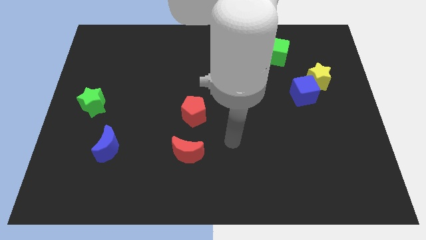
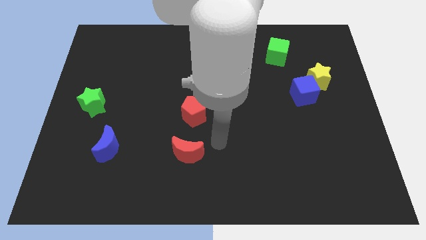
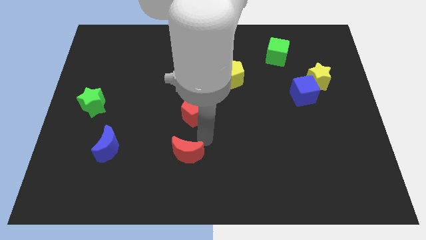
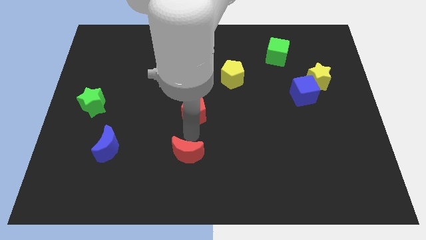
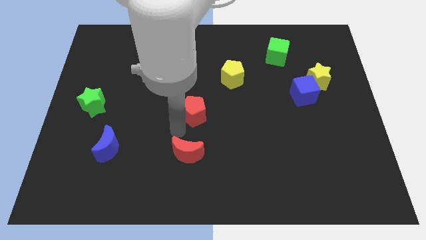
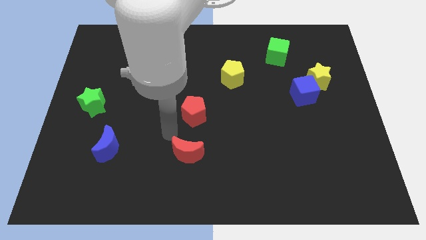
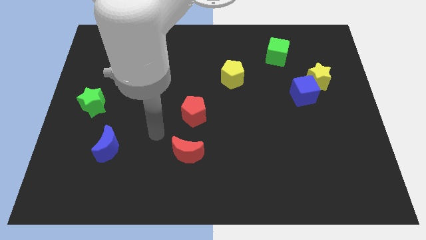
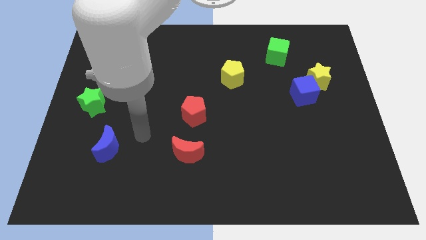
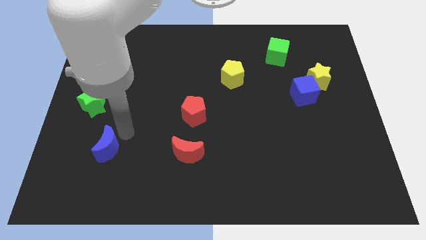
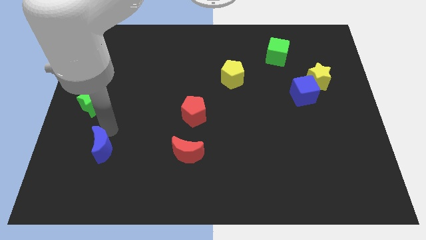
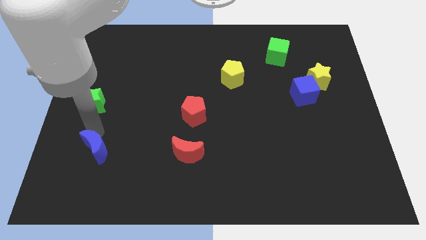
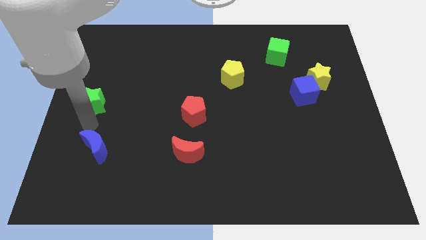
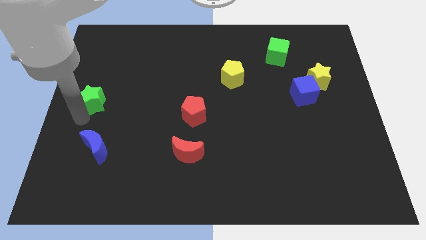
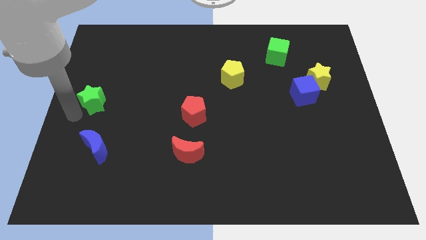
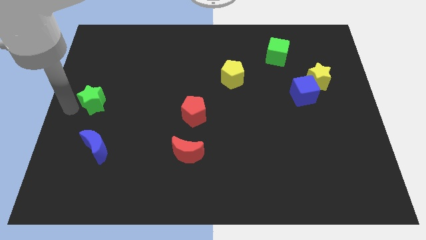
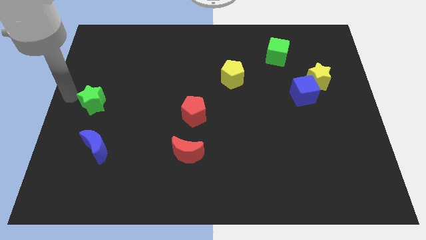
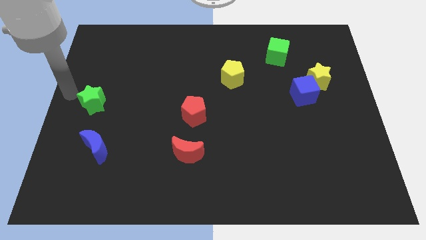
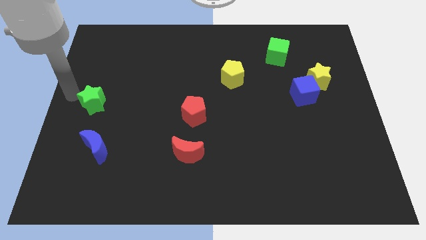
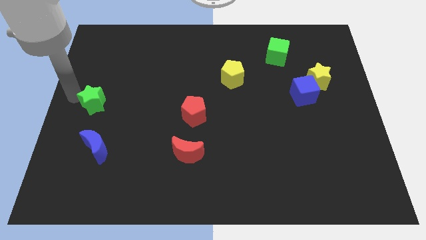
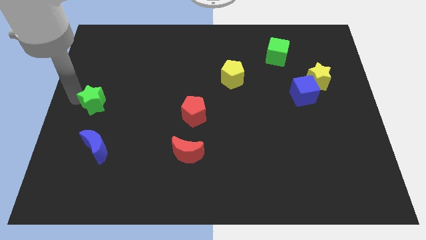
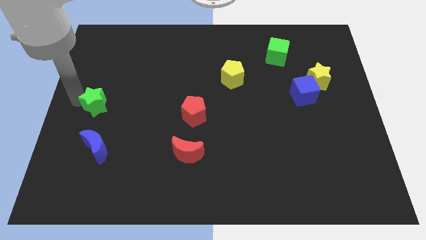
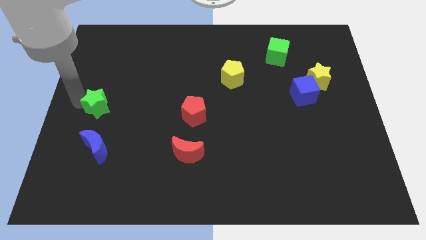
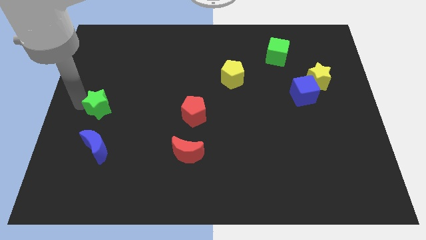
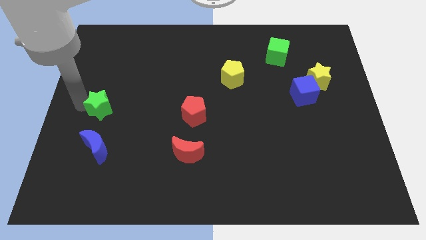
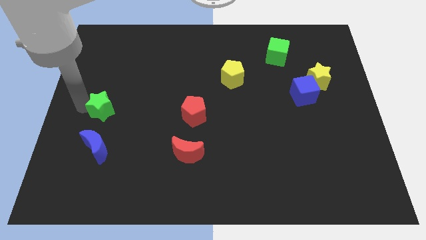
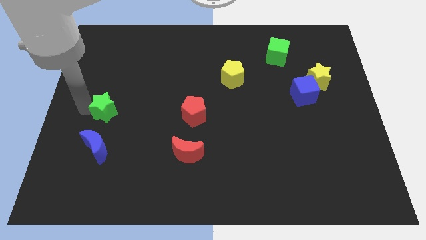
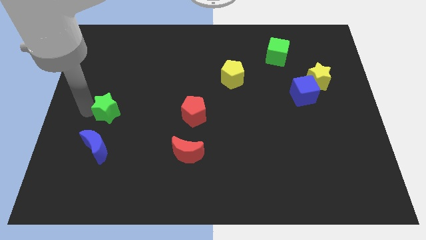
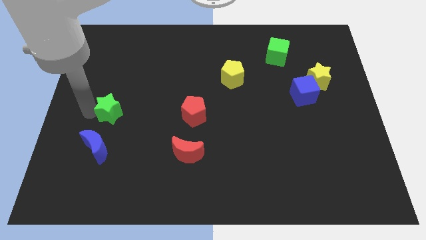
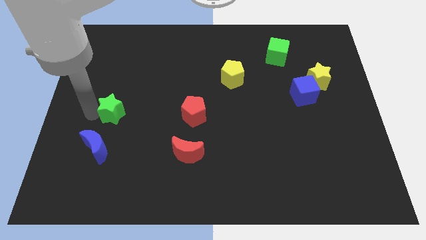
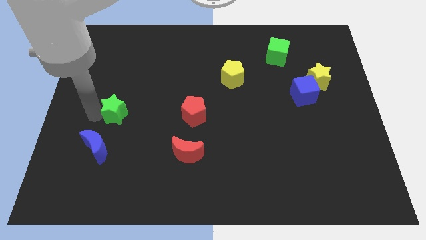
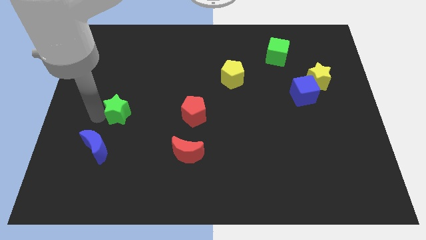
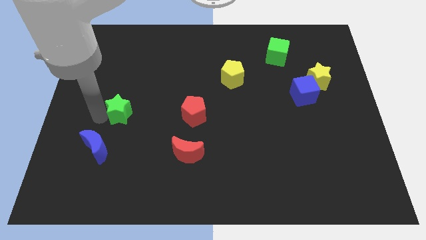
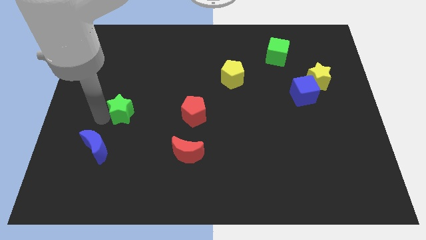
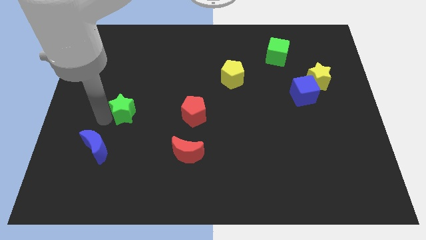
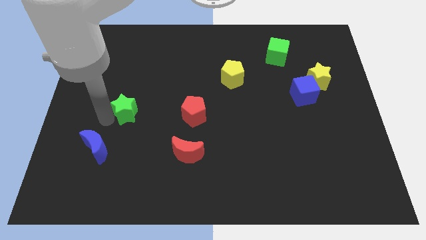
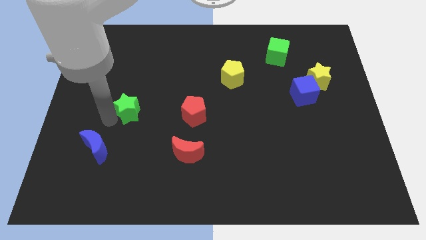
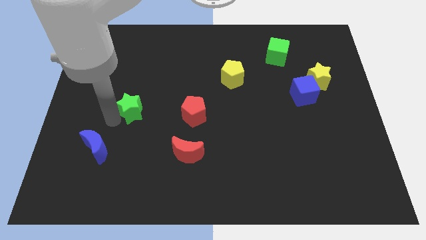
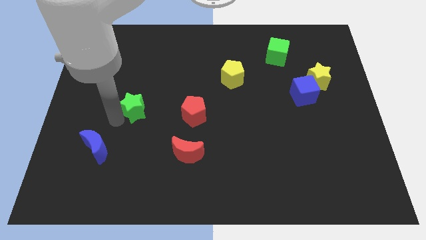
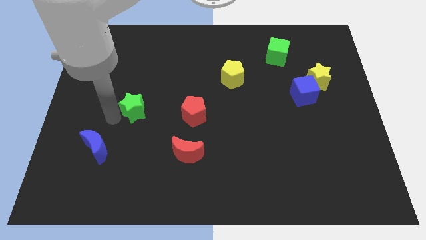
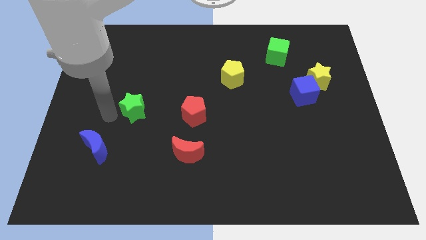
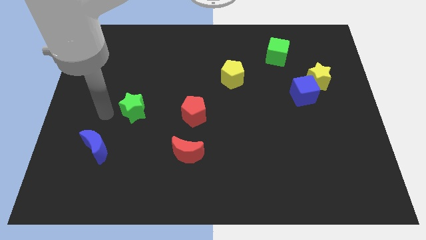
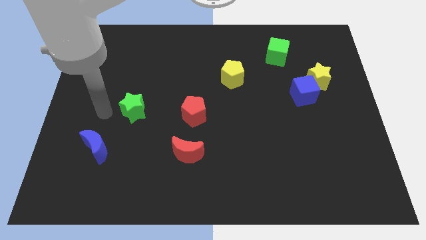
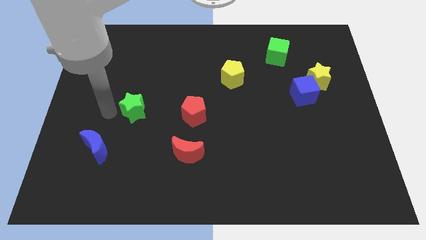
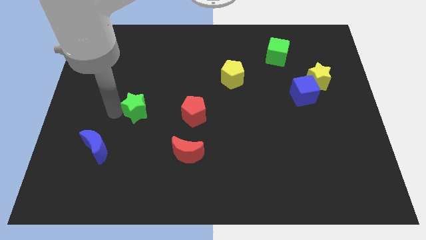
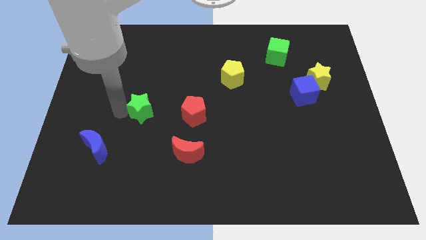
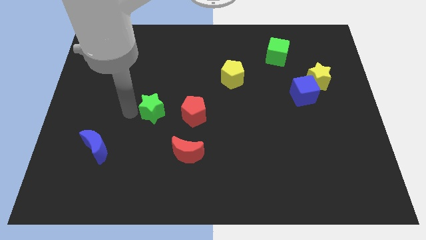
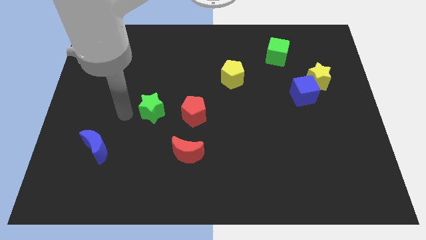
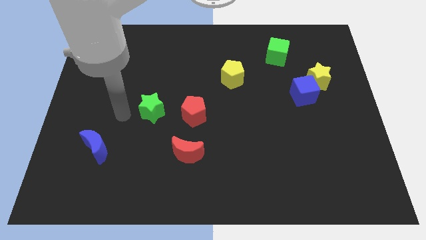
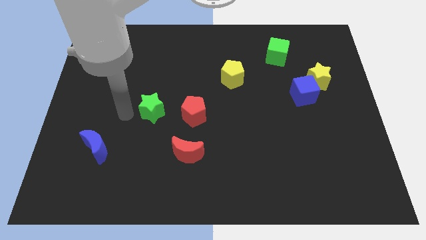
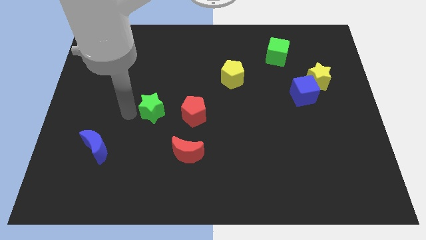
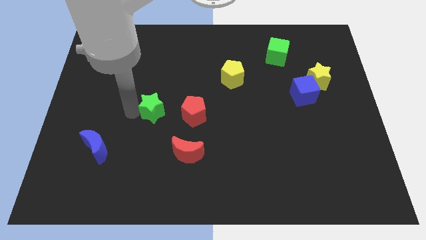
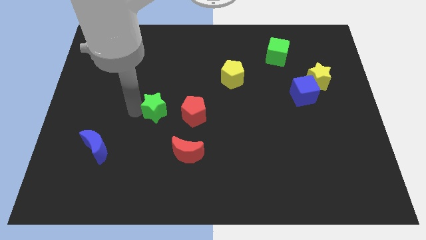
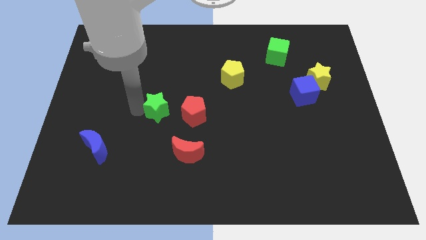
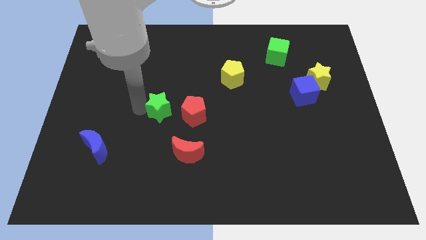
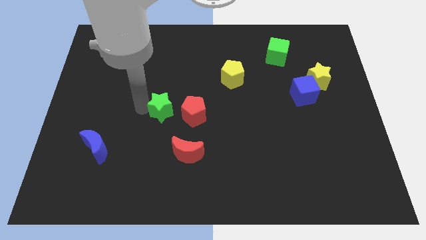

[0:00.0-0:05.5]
push the green star to the center

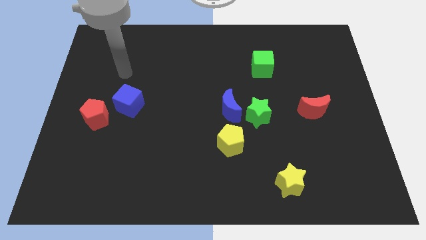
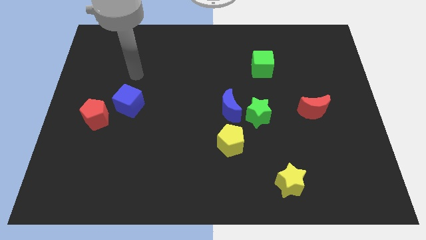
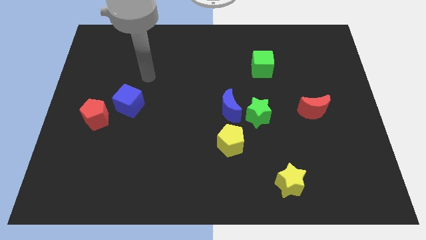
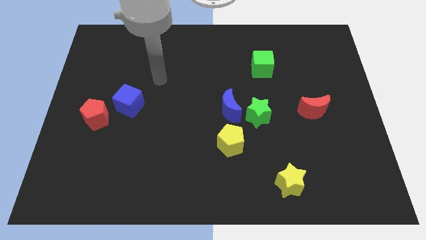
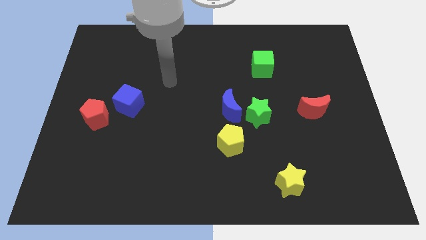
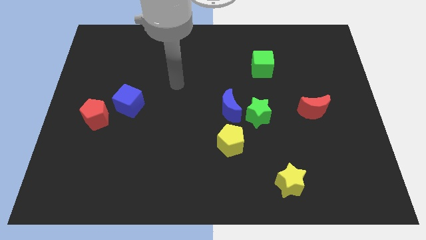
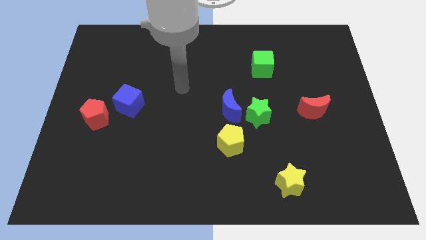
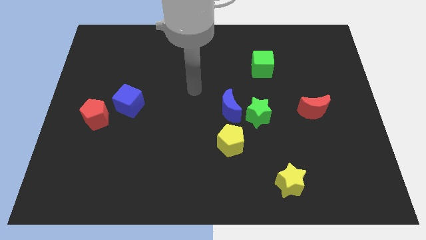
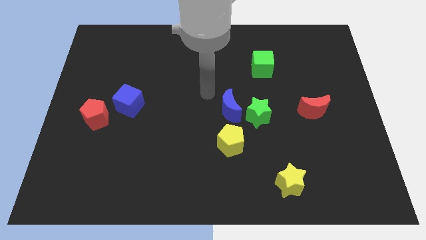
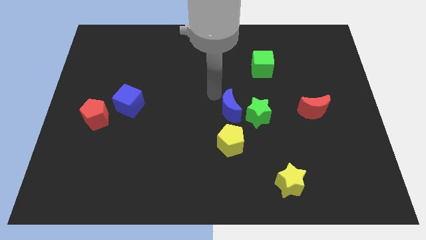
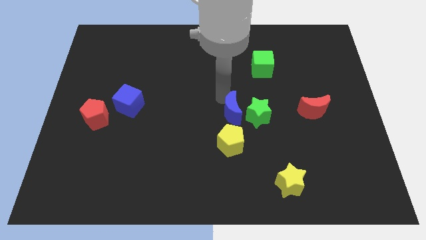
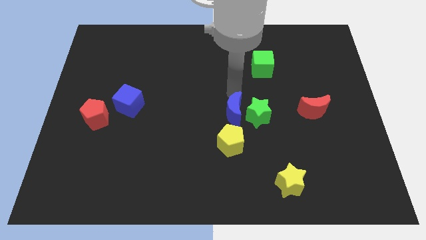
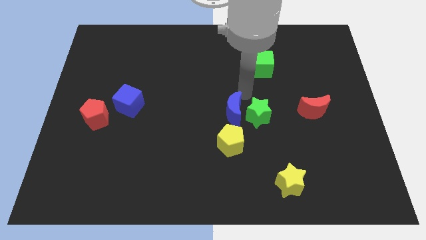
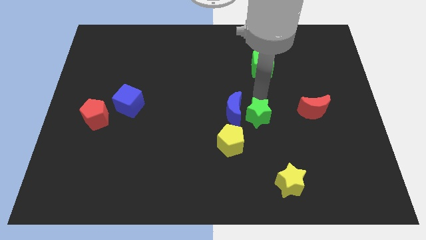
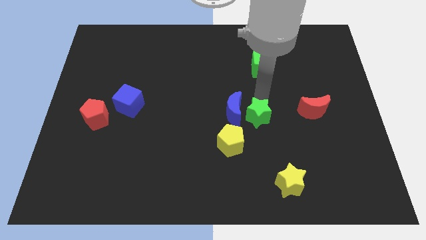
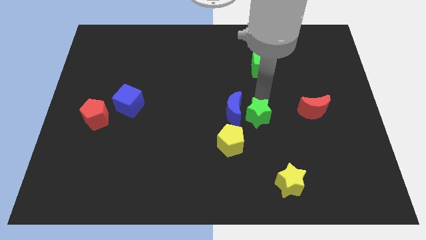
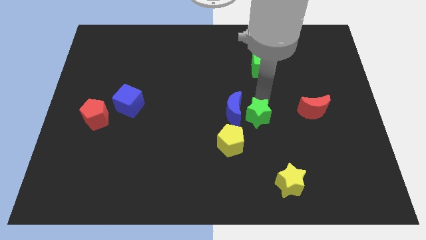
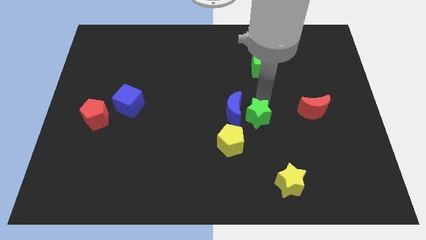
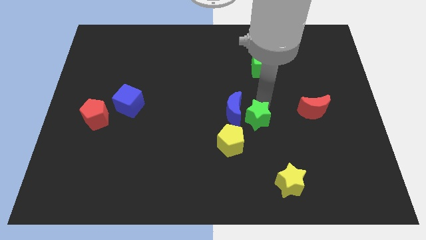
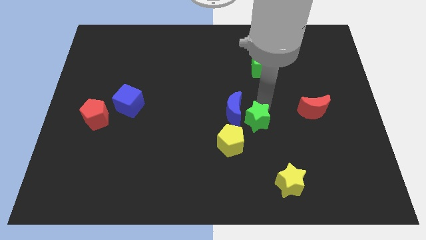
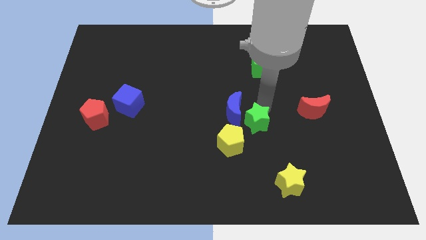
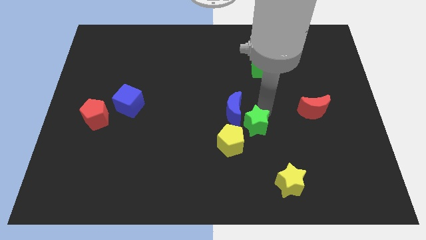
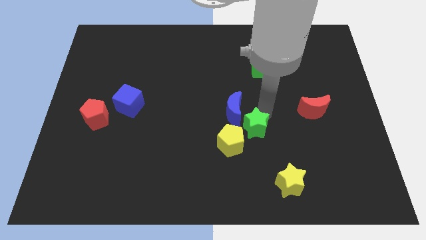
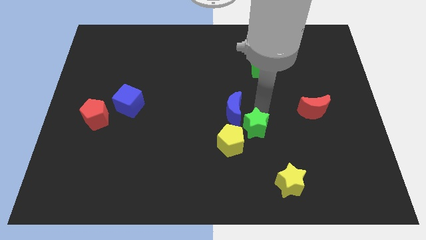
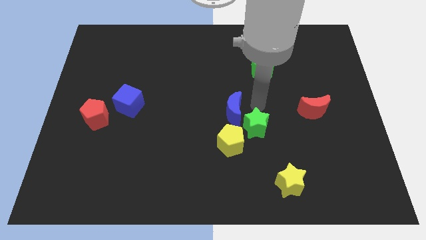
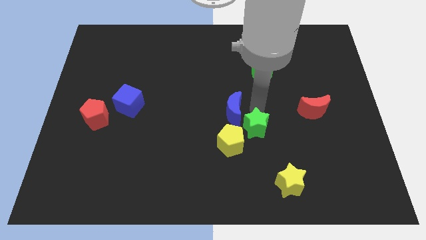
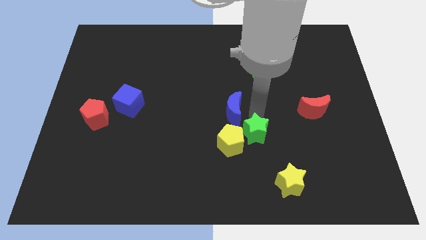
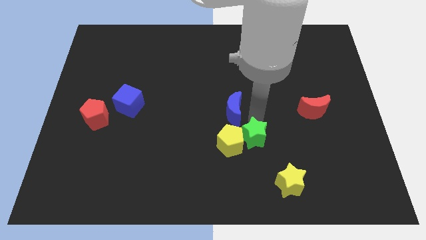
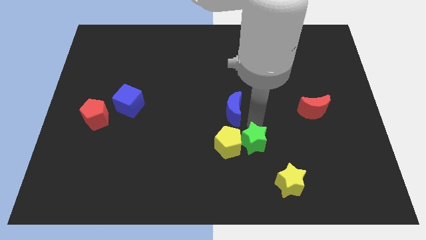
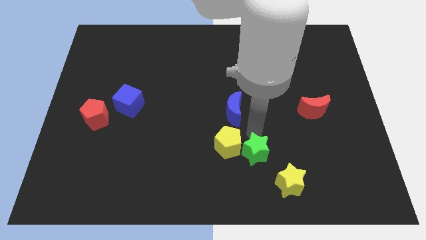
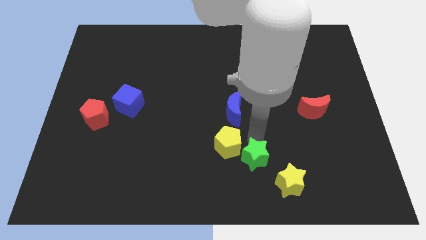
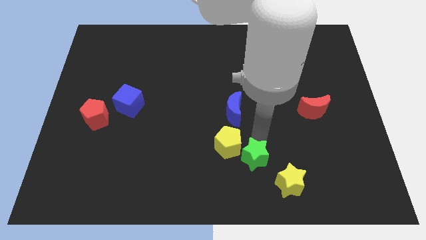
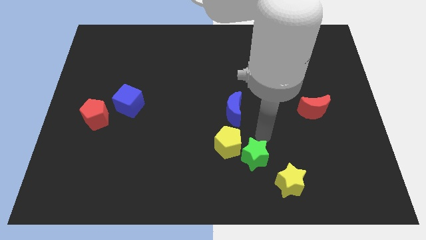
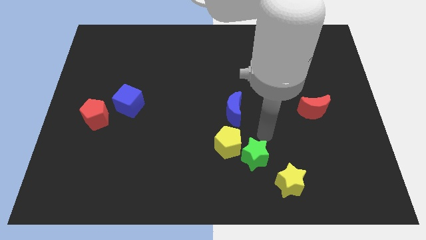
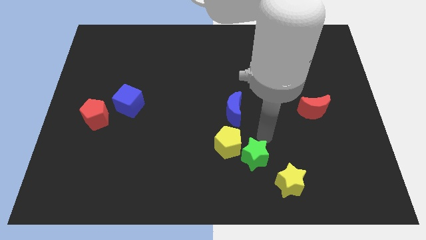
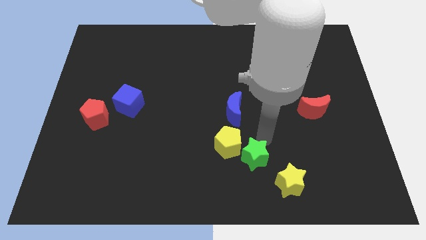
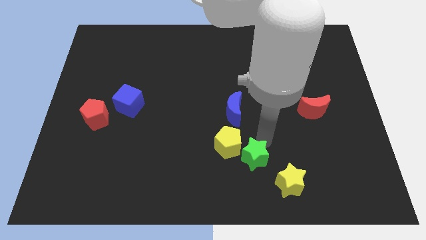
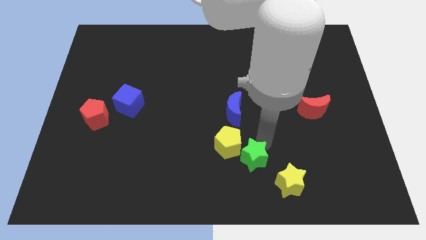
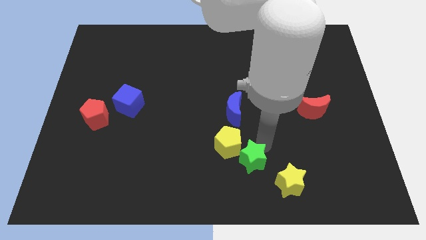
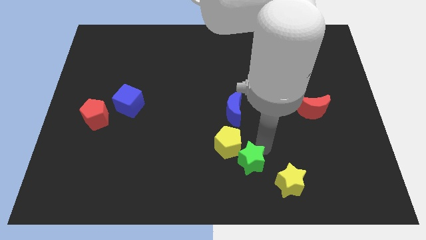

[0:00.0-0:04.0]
put the green star to the bottom
